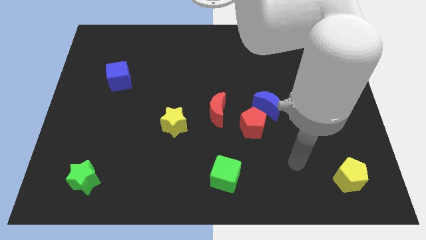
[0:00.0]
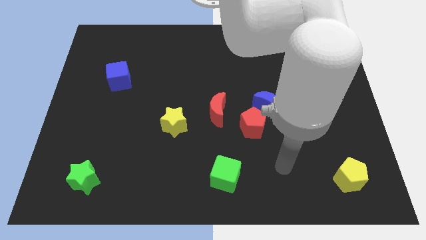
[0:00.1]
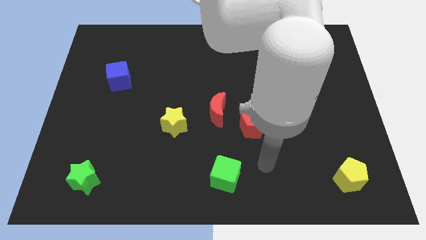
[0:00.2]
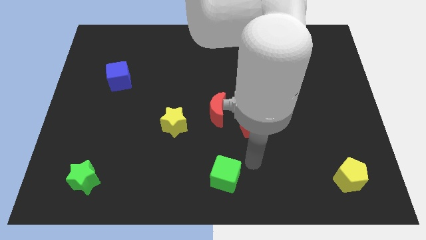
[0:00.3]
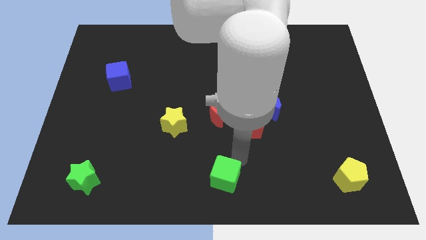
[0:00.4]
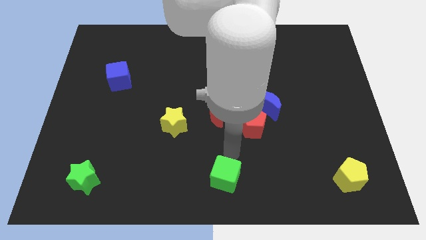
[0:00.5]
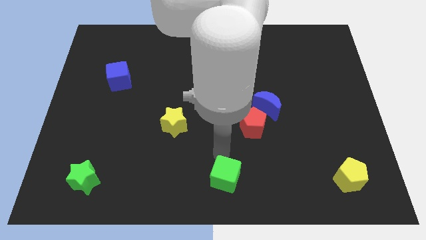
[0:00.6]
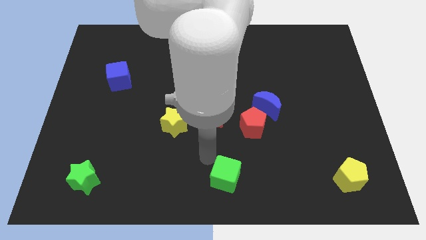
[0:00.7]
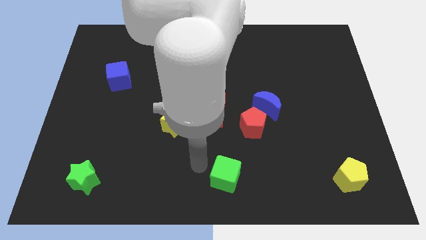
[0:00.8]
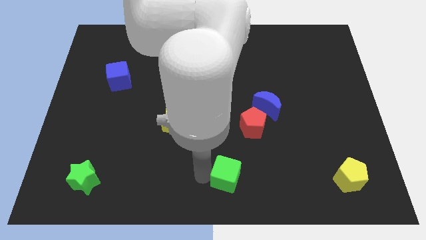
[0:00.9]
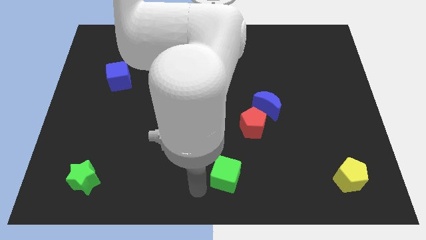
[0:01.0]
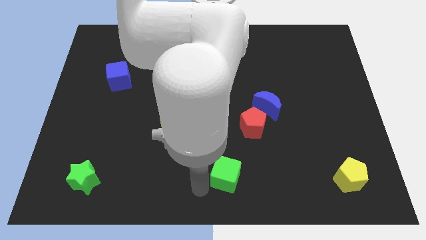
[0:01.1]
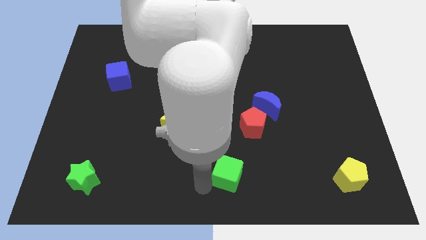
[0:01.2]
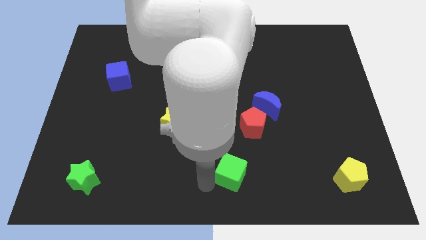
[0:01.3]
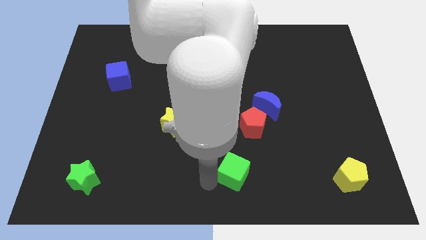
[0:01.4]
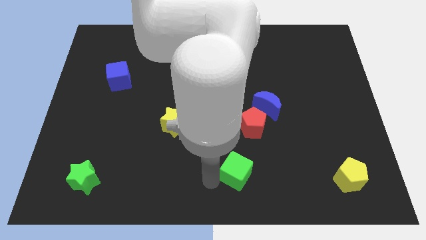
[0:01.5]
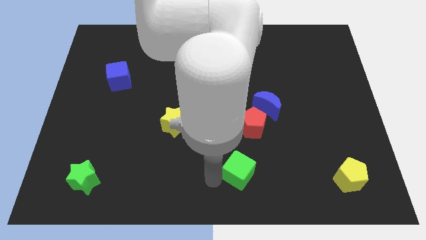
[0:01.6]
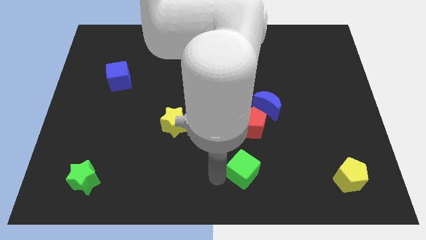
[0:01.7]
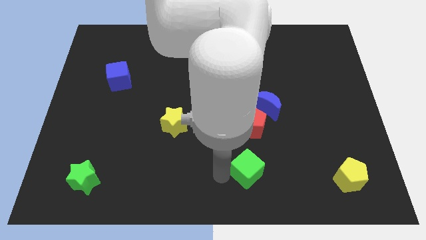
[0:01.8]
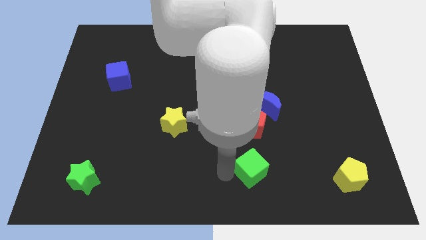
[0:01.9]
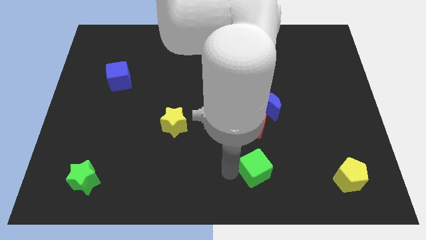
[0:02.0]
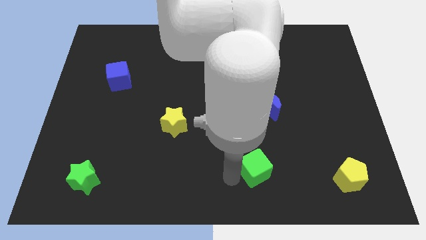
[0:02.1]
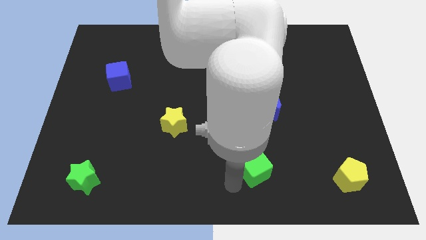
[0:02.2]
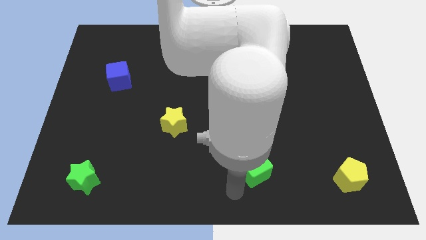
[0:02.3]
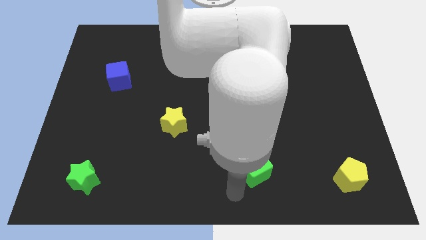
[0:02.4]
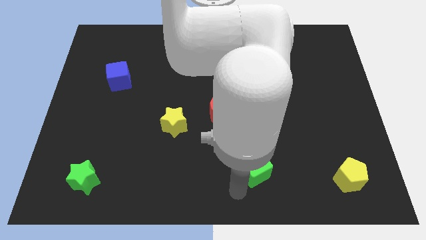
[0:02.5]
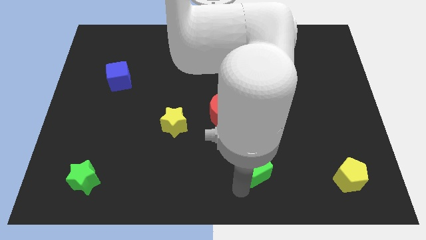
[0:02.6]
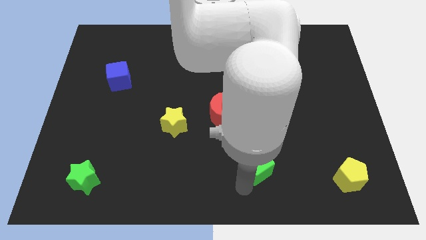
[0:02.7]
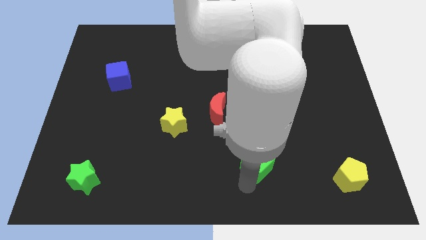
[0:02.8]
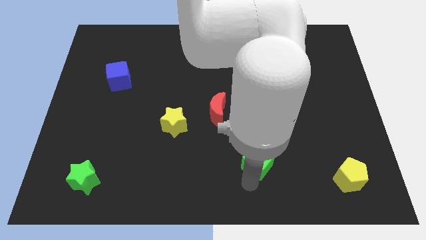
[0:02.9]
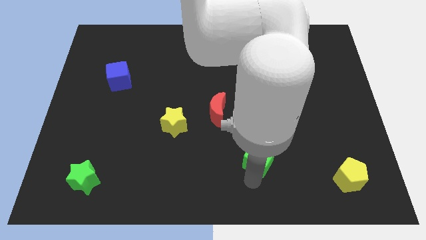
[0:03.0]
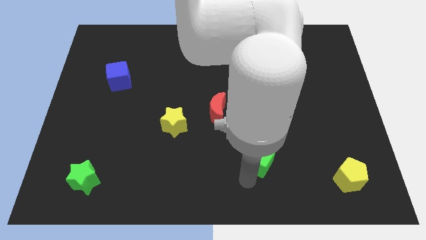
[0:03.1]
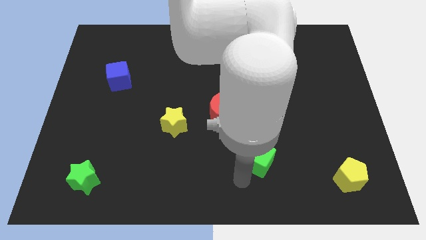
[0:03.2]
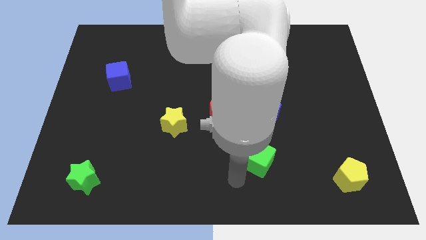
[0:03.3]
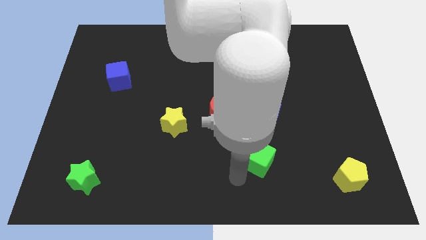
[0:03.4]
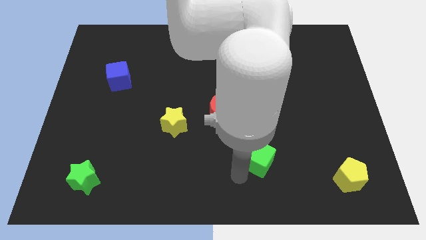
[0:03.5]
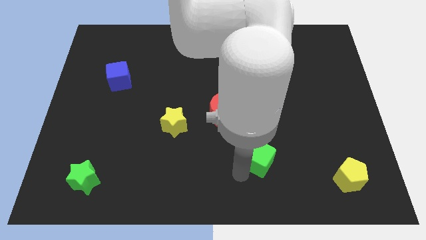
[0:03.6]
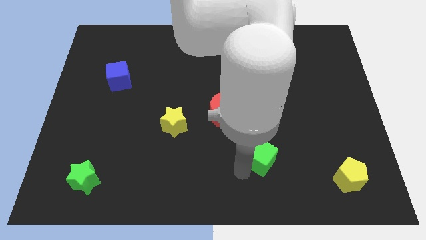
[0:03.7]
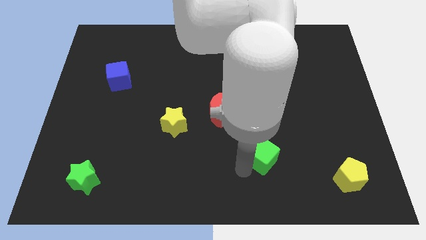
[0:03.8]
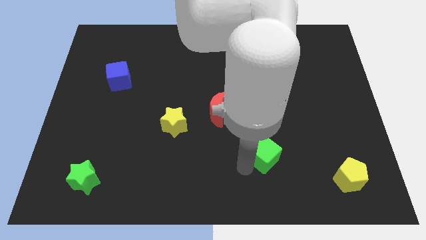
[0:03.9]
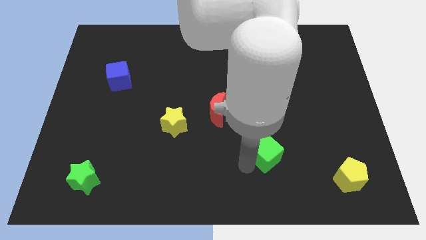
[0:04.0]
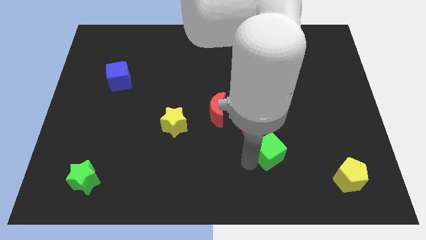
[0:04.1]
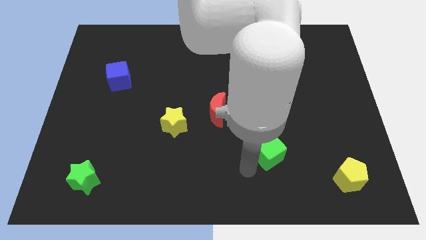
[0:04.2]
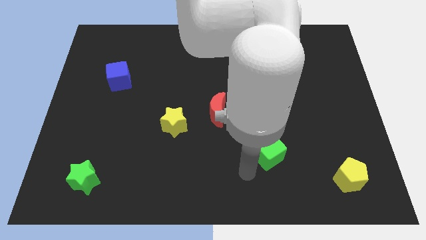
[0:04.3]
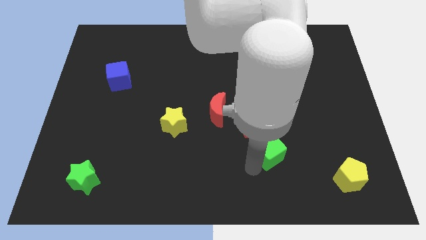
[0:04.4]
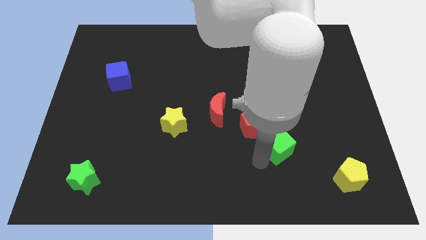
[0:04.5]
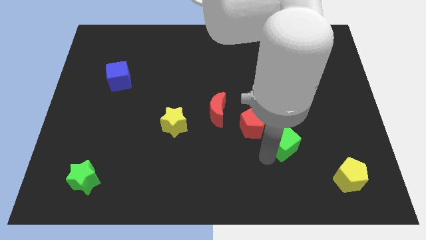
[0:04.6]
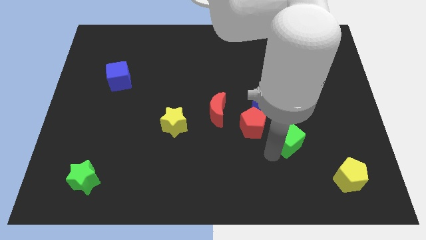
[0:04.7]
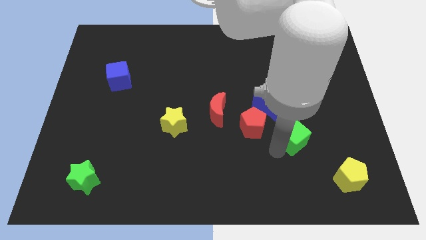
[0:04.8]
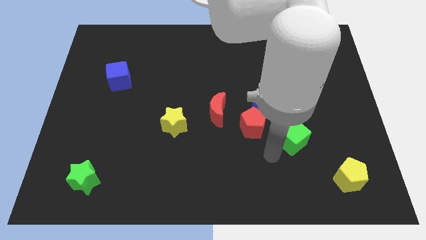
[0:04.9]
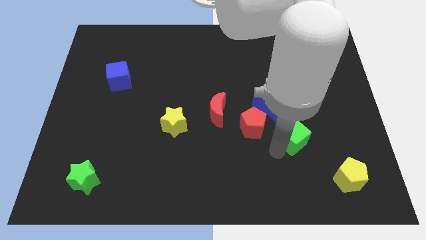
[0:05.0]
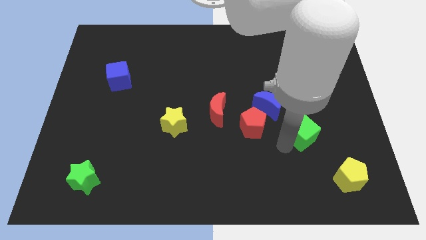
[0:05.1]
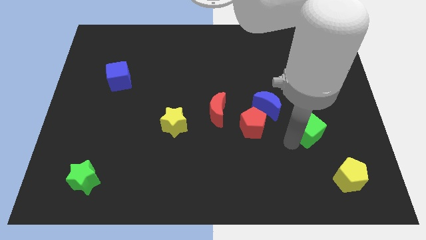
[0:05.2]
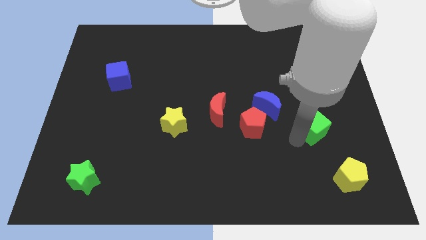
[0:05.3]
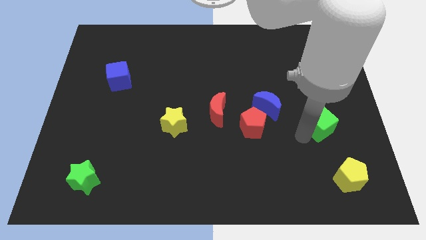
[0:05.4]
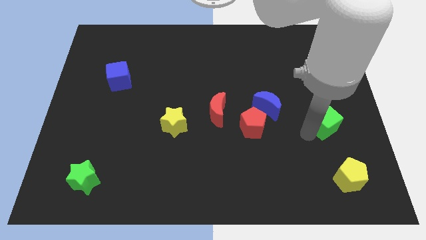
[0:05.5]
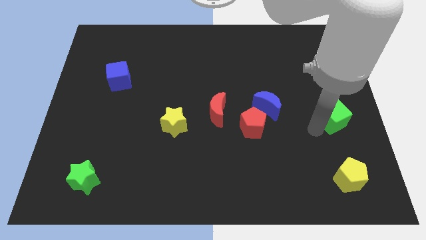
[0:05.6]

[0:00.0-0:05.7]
put the green cube to the right side of the board

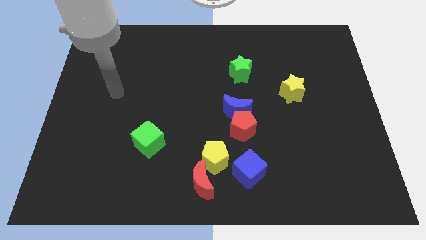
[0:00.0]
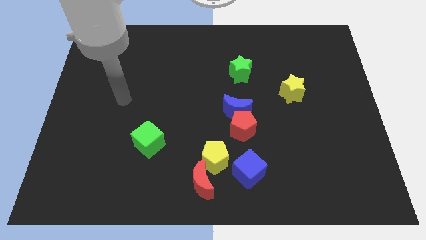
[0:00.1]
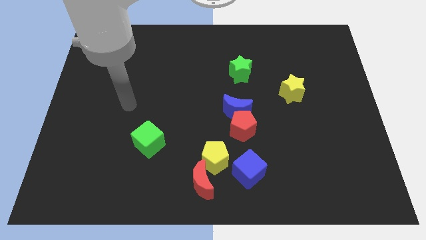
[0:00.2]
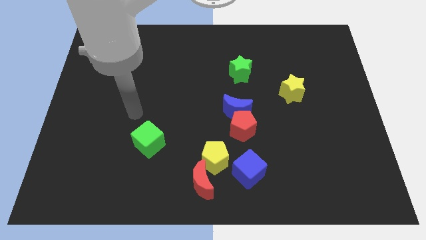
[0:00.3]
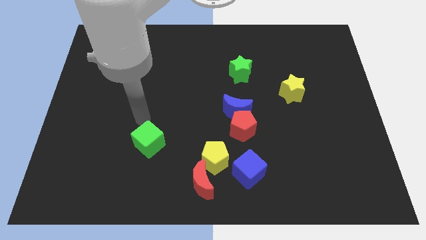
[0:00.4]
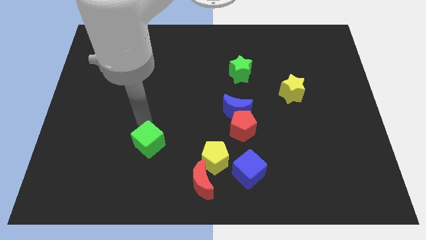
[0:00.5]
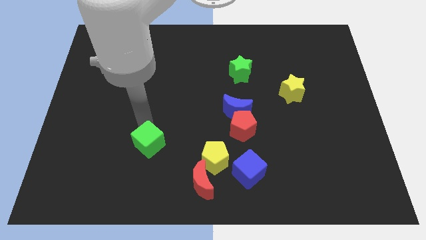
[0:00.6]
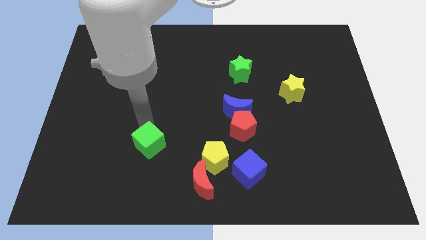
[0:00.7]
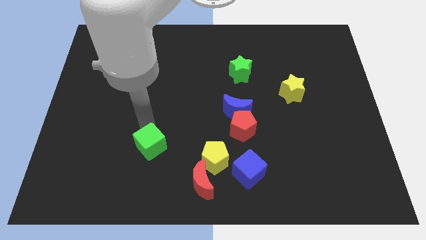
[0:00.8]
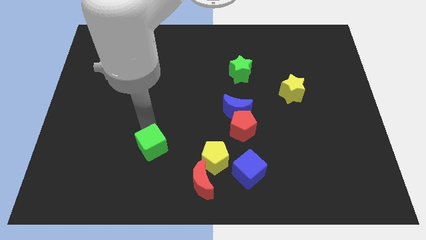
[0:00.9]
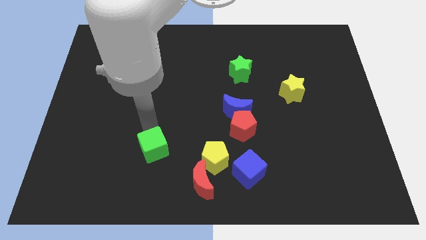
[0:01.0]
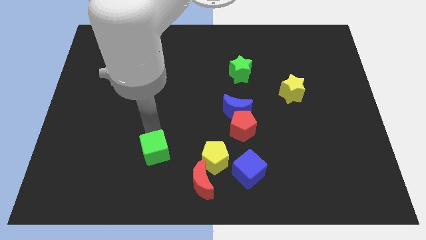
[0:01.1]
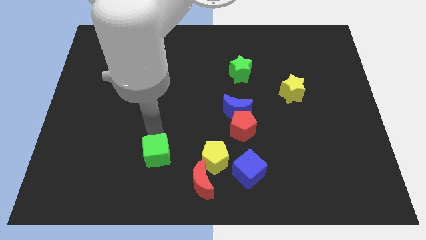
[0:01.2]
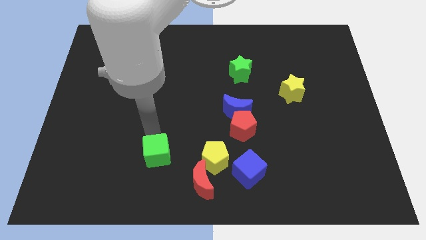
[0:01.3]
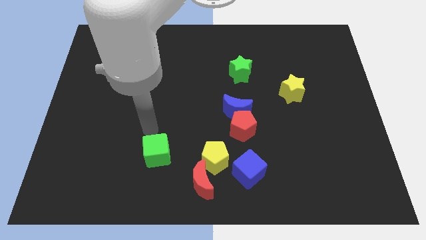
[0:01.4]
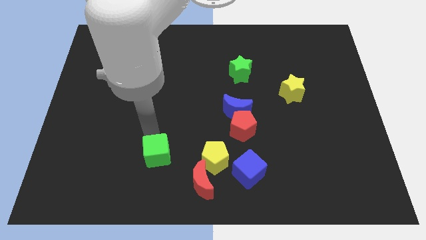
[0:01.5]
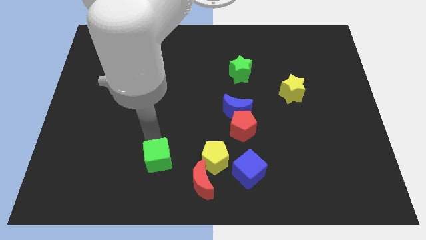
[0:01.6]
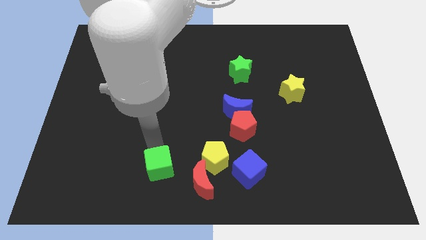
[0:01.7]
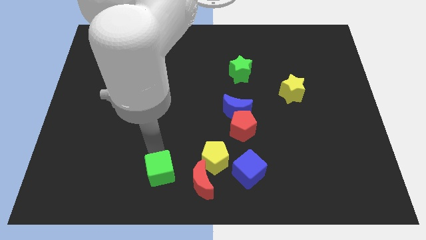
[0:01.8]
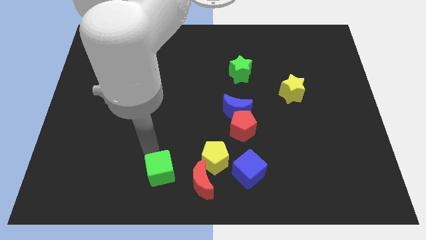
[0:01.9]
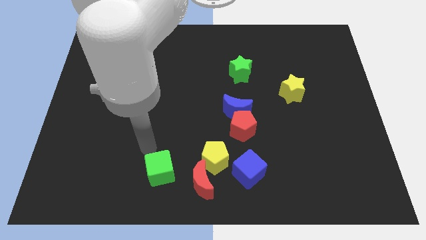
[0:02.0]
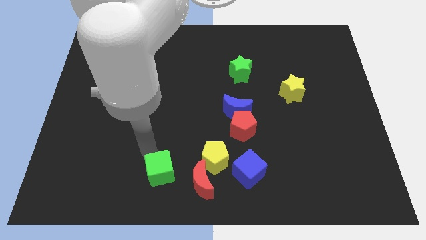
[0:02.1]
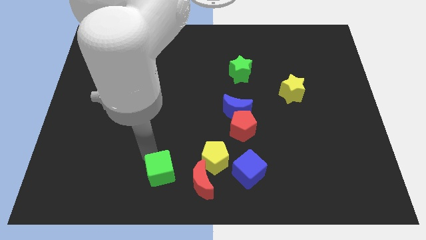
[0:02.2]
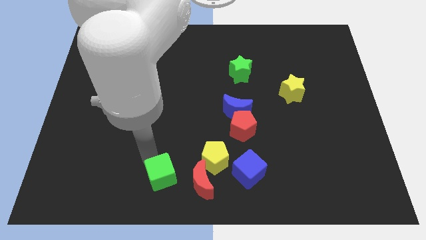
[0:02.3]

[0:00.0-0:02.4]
move the green cube to the bottom
